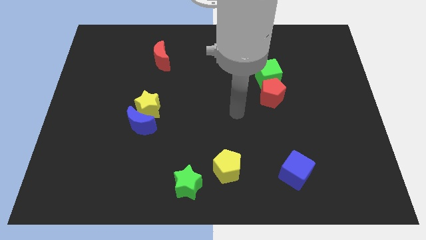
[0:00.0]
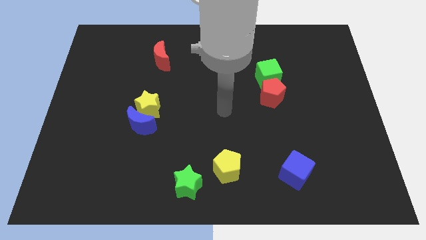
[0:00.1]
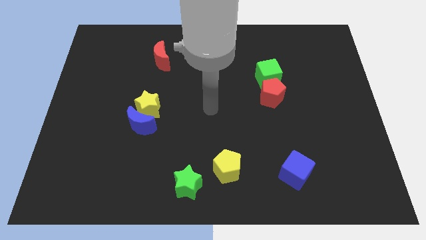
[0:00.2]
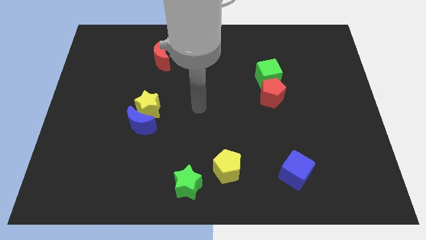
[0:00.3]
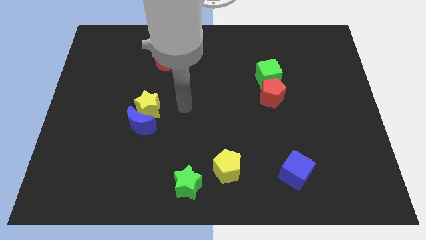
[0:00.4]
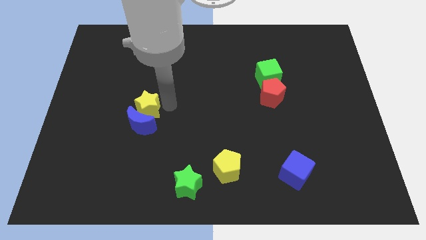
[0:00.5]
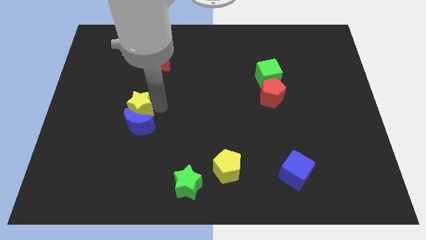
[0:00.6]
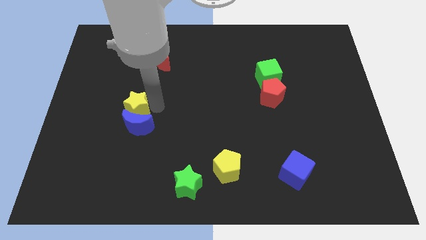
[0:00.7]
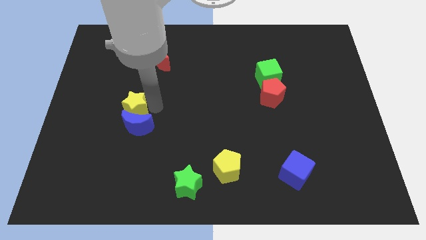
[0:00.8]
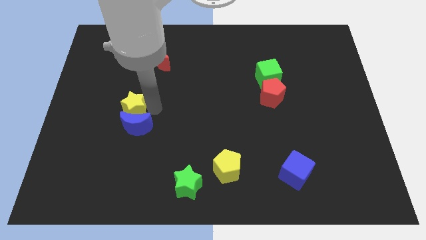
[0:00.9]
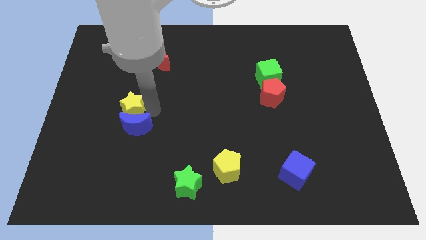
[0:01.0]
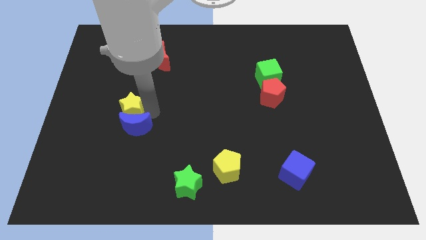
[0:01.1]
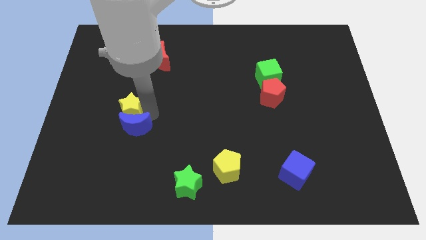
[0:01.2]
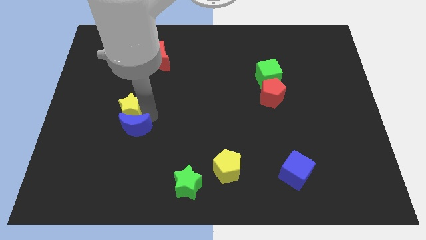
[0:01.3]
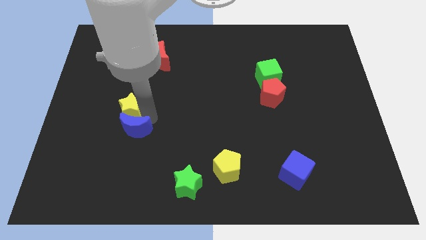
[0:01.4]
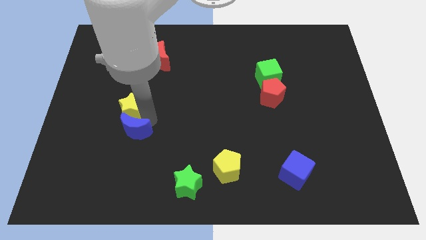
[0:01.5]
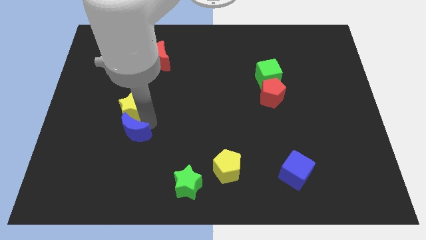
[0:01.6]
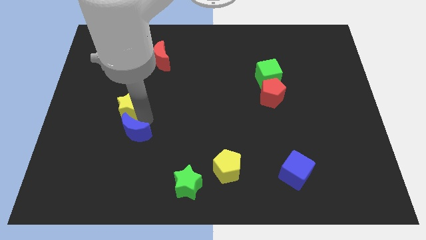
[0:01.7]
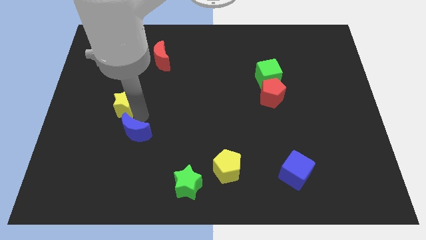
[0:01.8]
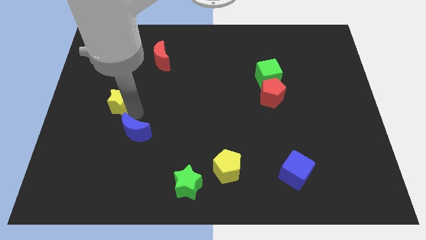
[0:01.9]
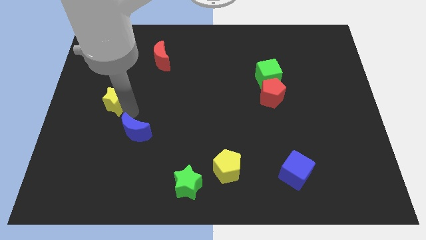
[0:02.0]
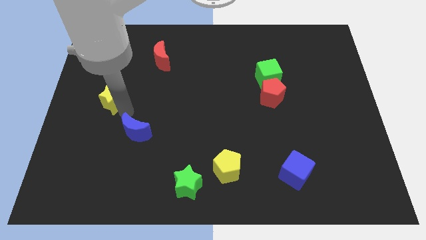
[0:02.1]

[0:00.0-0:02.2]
pull the blue moon apart from the yellow star

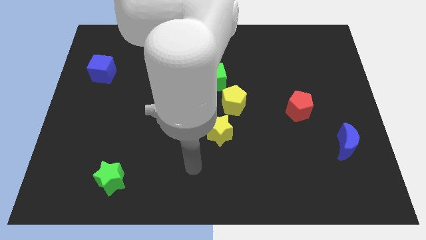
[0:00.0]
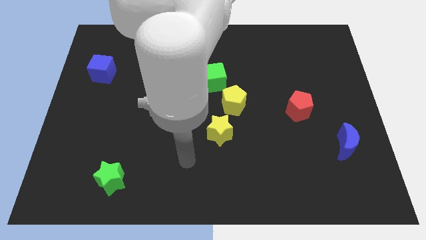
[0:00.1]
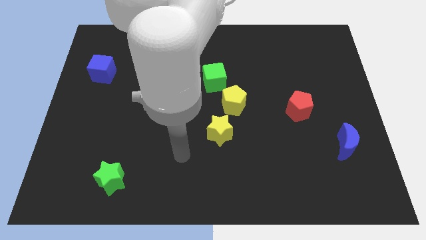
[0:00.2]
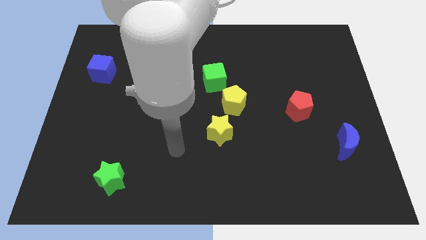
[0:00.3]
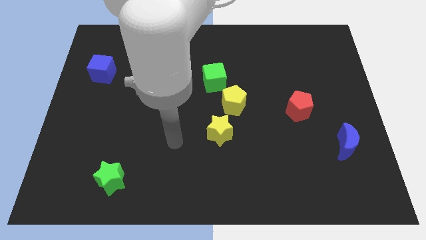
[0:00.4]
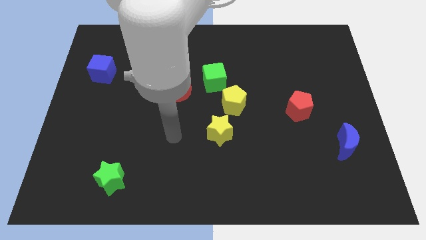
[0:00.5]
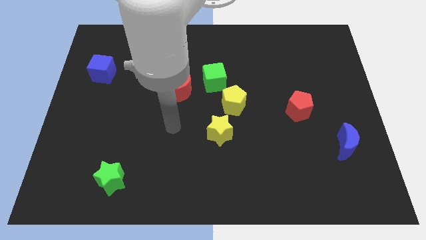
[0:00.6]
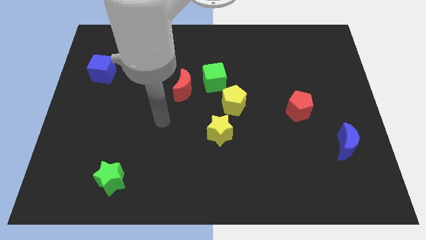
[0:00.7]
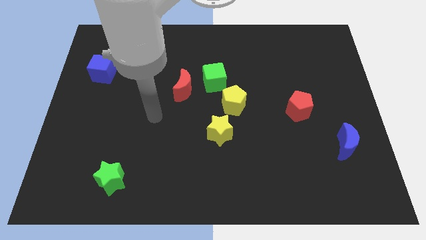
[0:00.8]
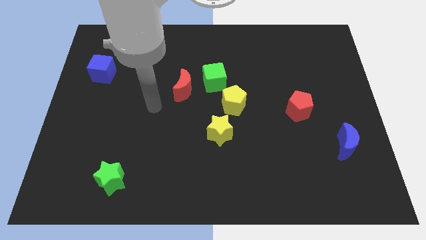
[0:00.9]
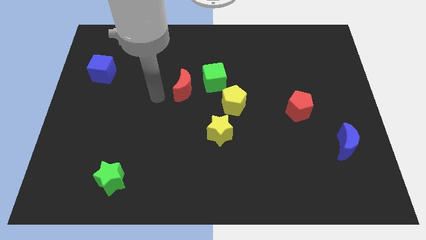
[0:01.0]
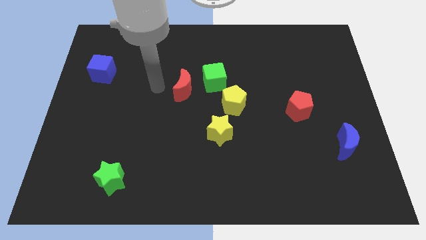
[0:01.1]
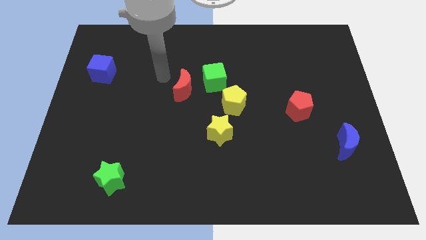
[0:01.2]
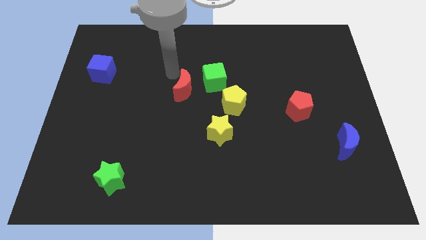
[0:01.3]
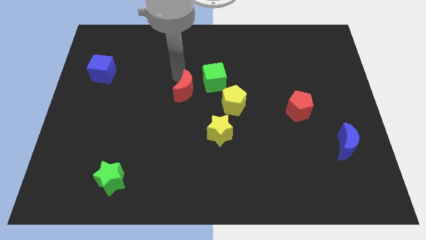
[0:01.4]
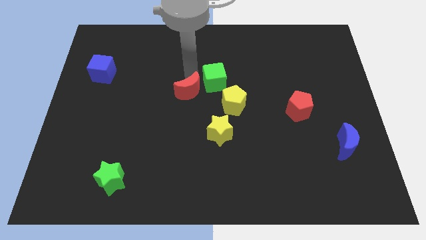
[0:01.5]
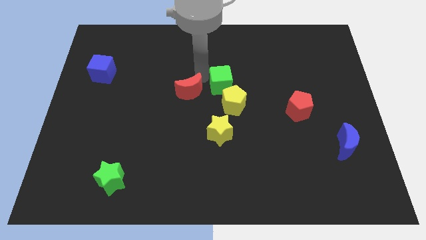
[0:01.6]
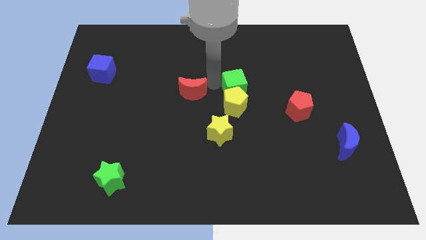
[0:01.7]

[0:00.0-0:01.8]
move the red moon away from the green cube

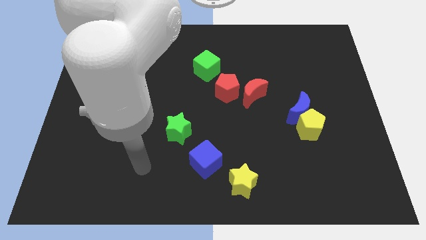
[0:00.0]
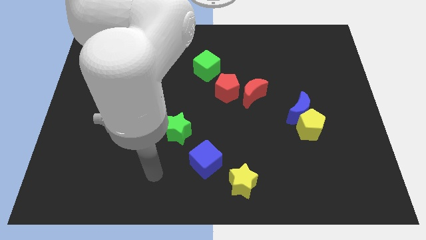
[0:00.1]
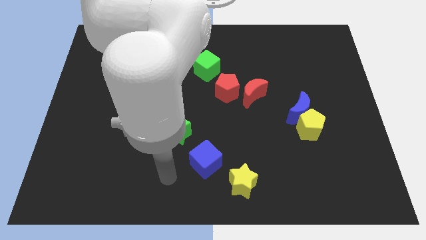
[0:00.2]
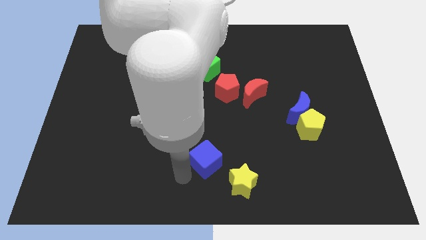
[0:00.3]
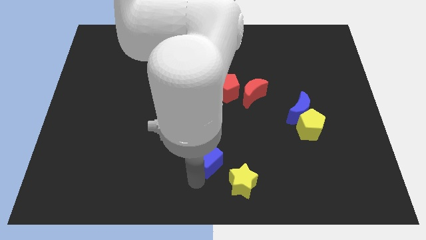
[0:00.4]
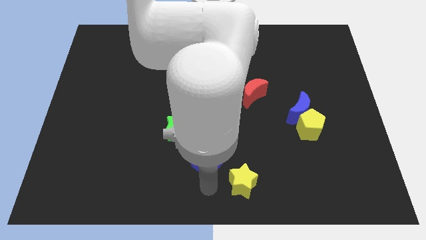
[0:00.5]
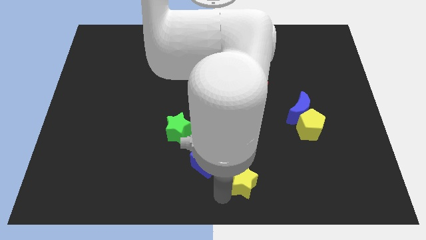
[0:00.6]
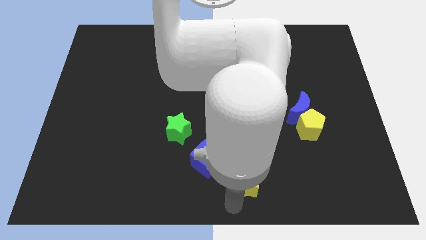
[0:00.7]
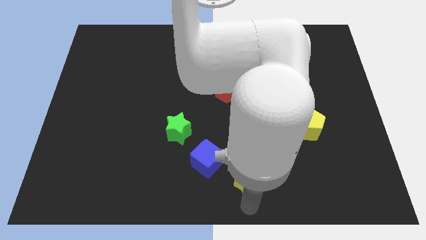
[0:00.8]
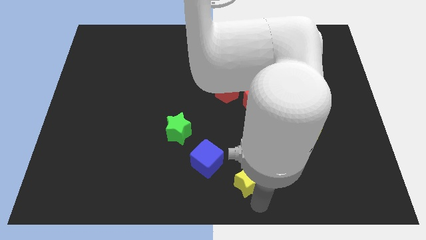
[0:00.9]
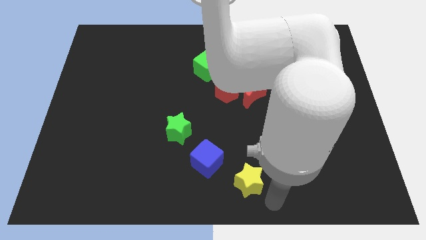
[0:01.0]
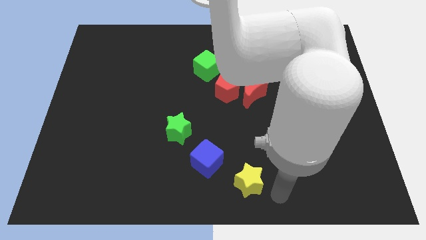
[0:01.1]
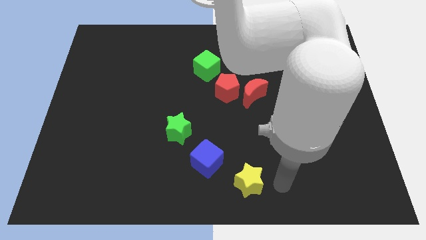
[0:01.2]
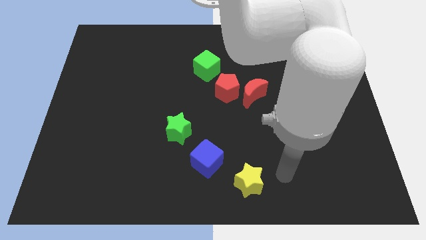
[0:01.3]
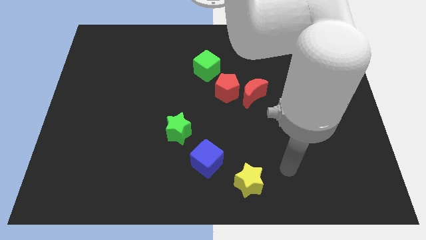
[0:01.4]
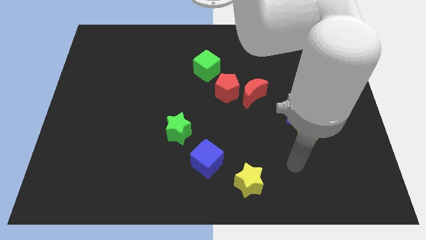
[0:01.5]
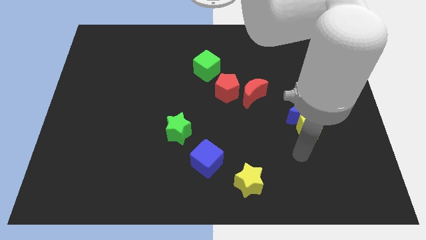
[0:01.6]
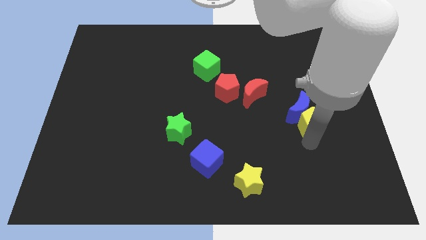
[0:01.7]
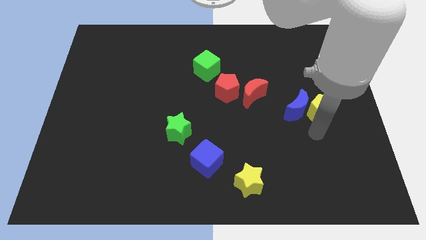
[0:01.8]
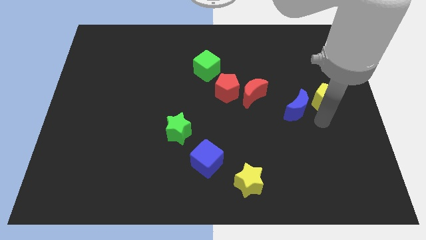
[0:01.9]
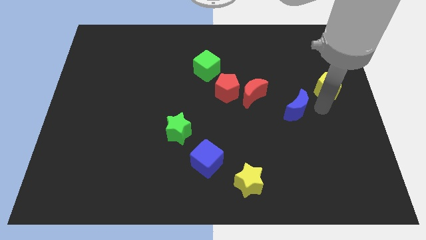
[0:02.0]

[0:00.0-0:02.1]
pull the blue moon apart from the yellow pentagon

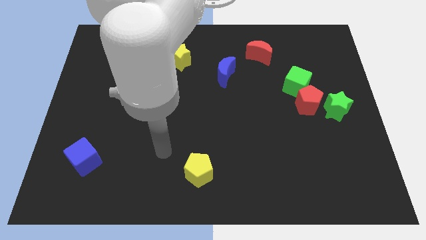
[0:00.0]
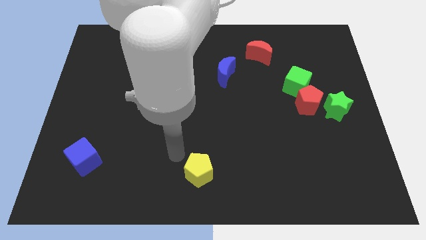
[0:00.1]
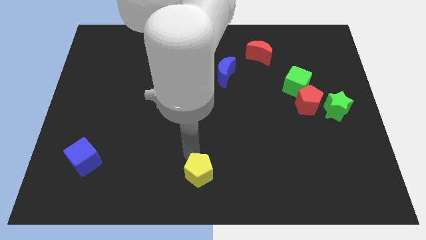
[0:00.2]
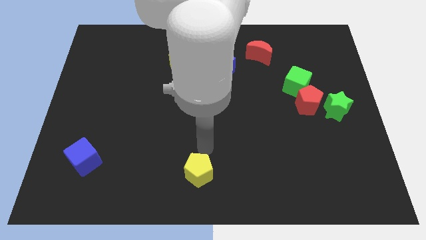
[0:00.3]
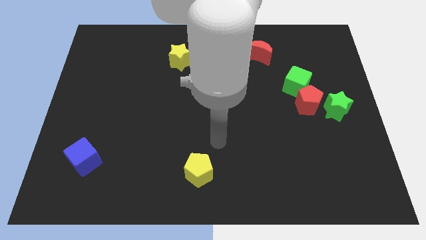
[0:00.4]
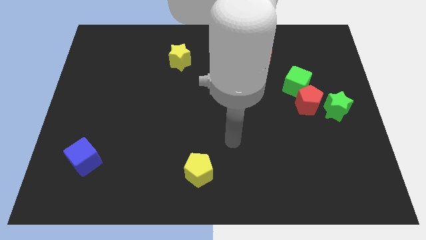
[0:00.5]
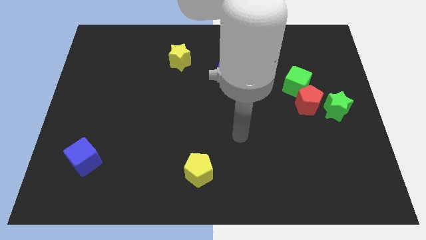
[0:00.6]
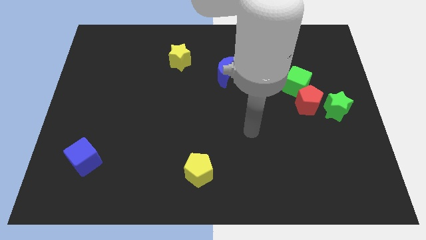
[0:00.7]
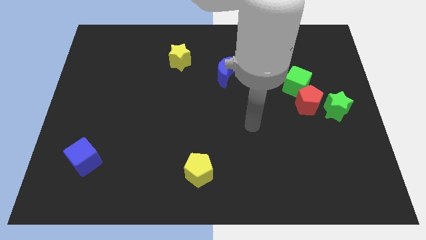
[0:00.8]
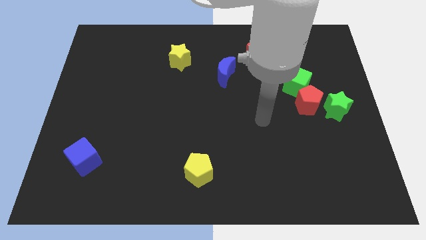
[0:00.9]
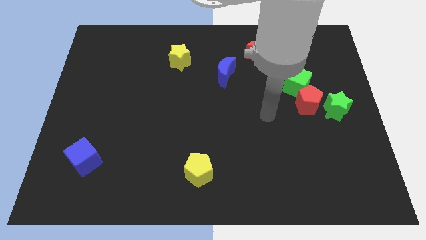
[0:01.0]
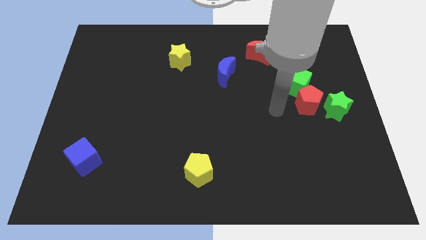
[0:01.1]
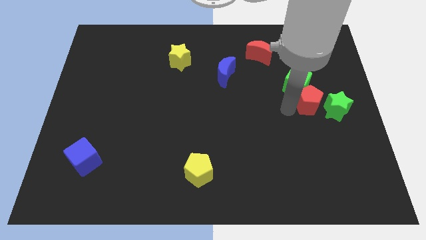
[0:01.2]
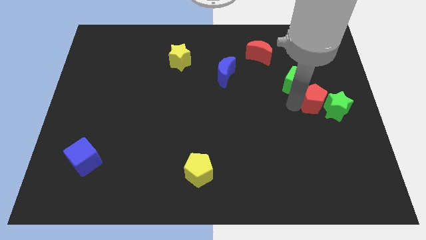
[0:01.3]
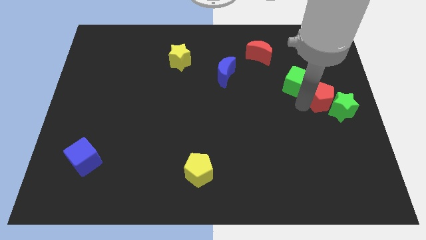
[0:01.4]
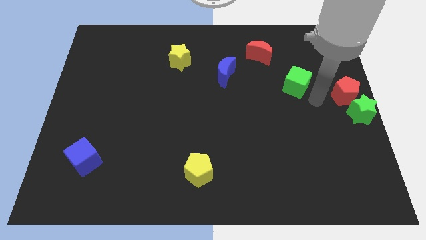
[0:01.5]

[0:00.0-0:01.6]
separate the green cube from the red pentagon

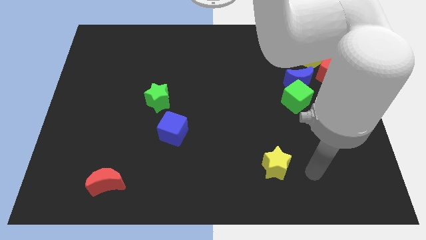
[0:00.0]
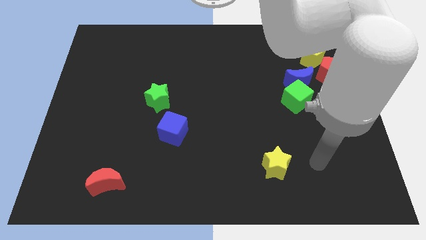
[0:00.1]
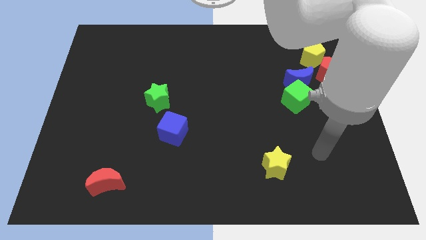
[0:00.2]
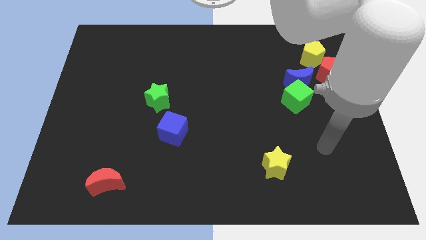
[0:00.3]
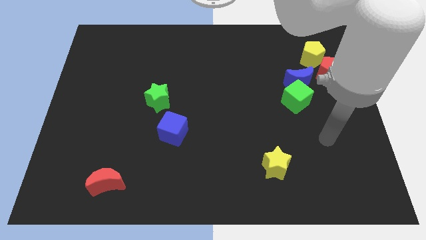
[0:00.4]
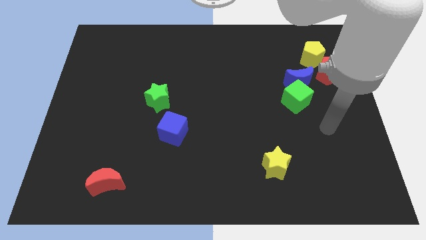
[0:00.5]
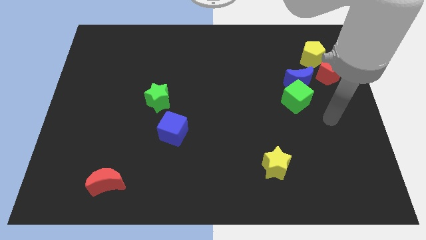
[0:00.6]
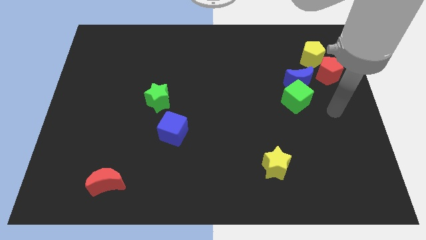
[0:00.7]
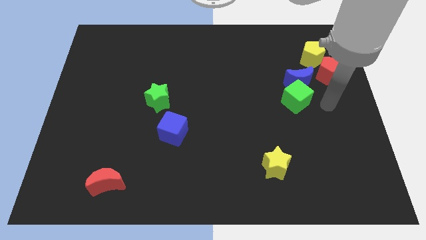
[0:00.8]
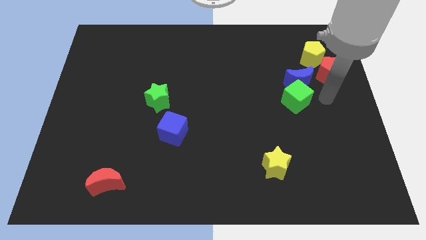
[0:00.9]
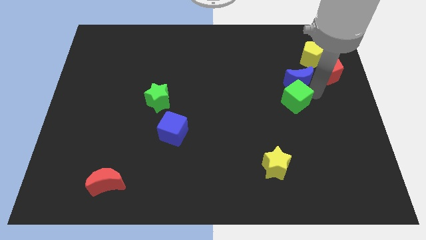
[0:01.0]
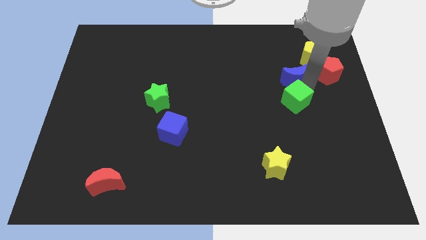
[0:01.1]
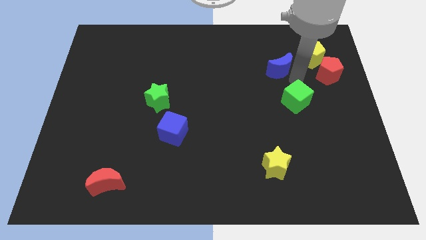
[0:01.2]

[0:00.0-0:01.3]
move the green cube away from the blue moon

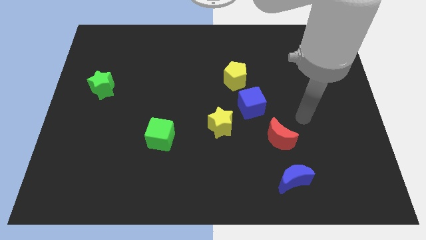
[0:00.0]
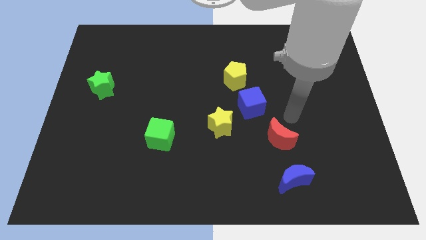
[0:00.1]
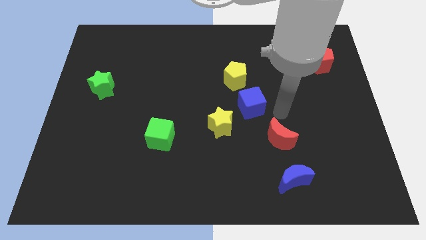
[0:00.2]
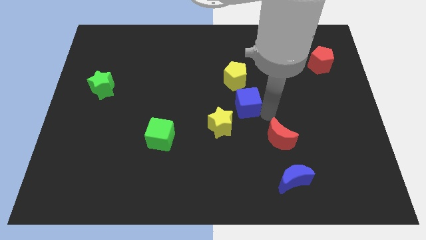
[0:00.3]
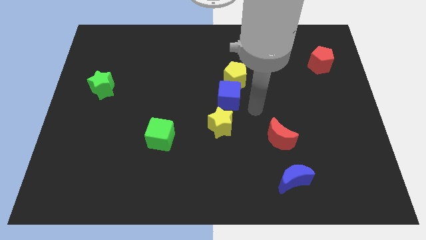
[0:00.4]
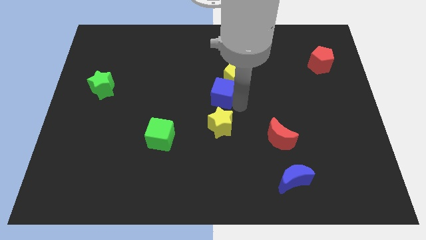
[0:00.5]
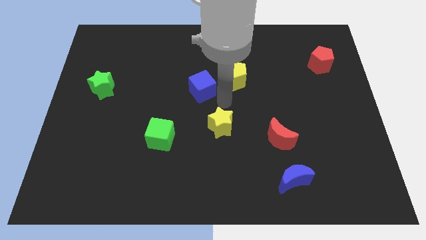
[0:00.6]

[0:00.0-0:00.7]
move the yellow star away from the blue cube
